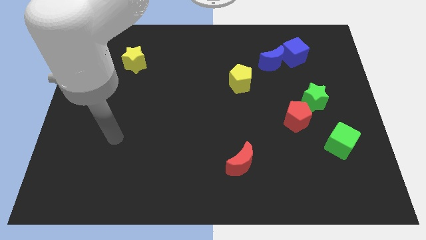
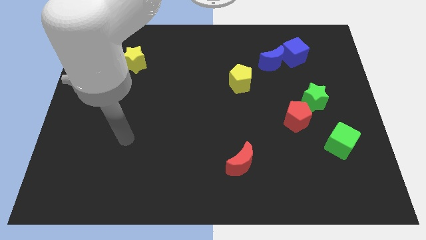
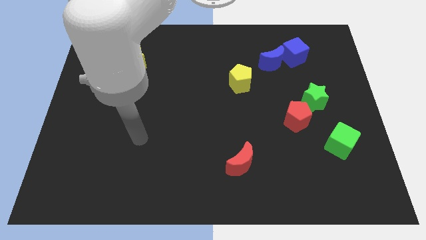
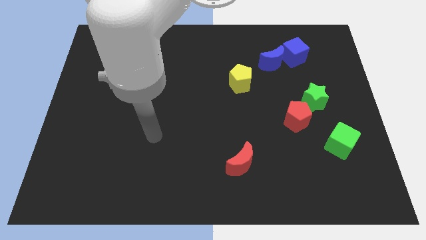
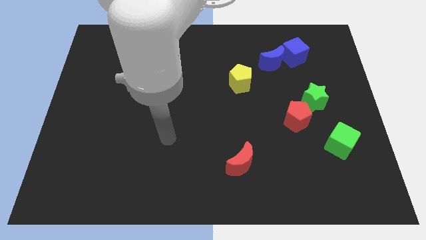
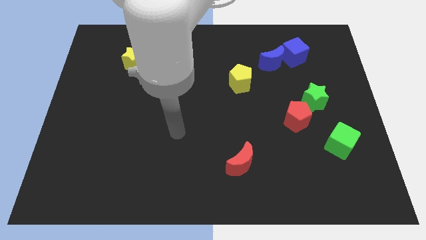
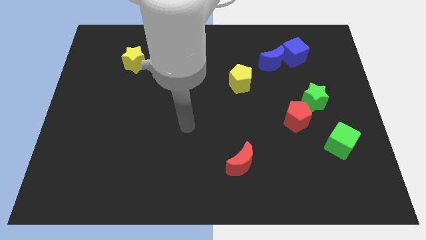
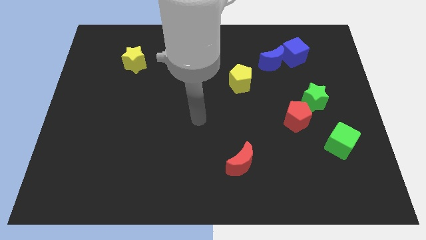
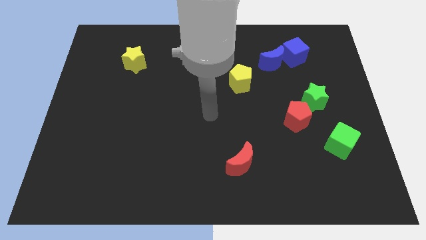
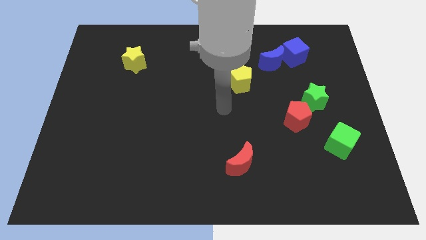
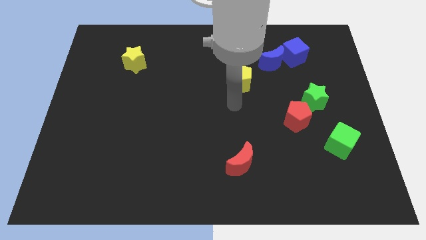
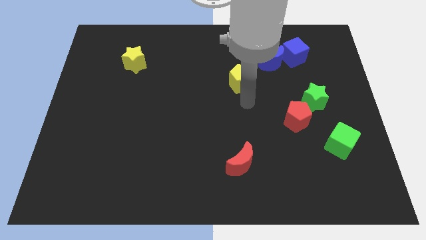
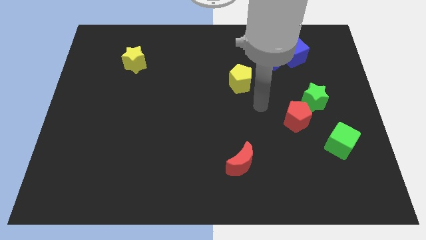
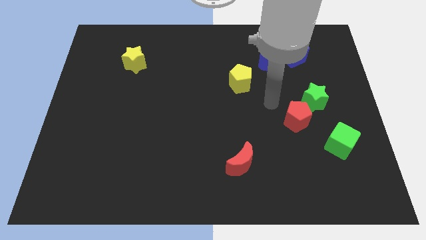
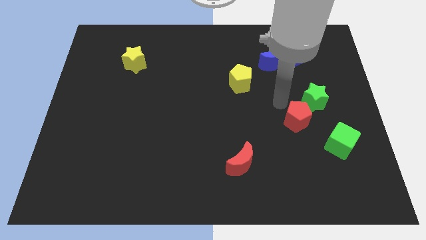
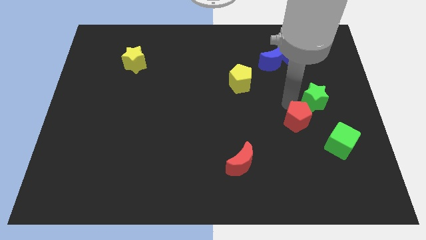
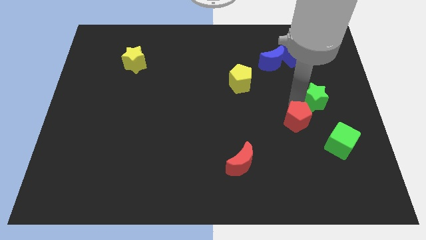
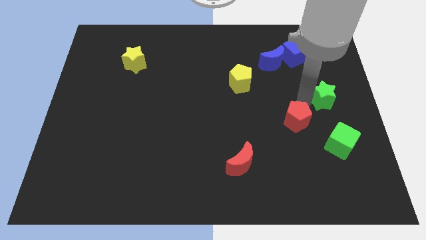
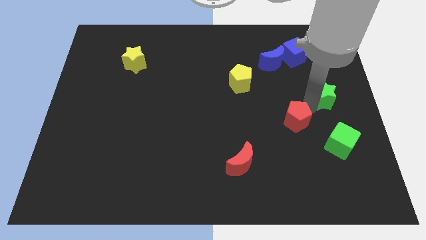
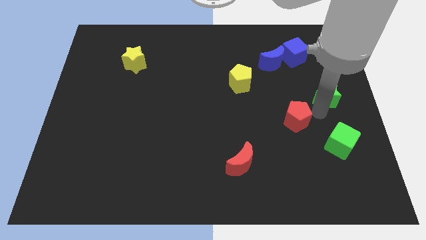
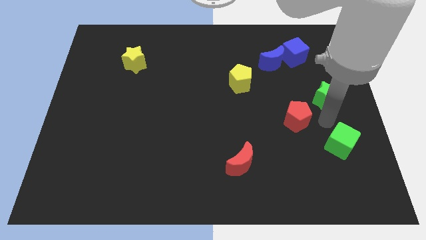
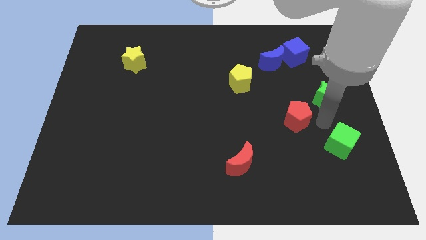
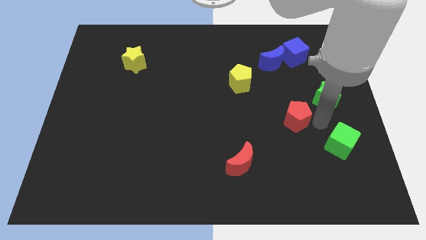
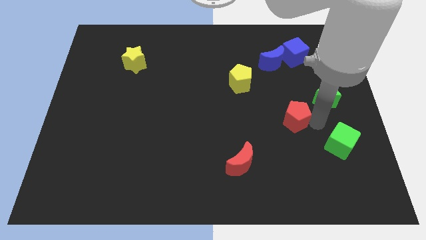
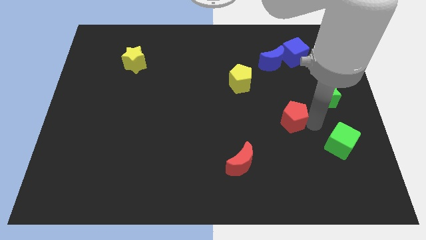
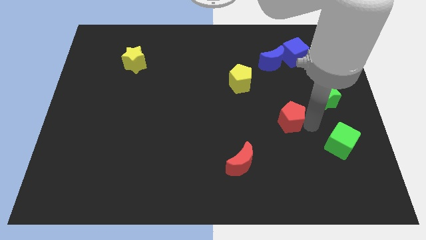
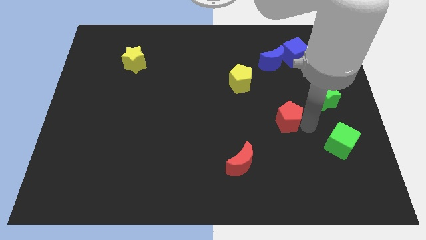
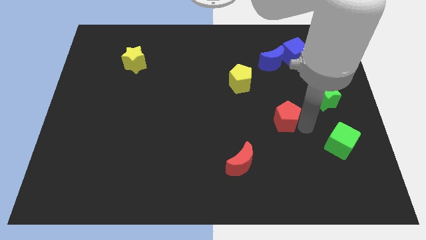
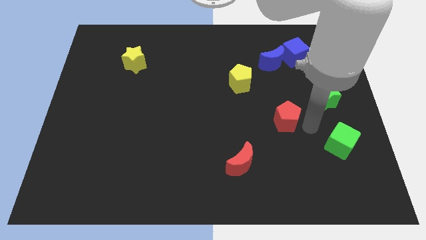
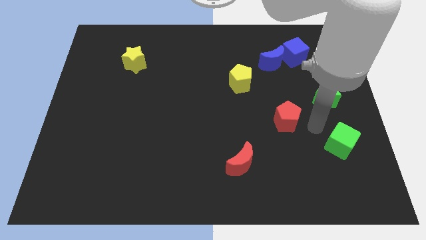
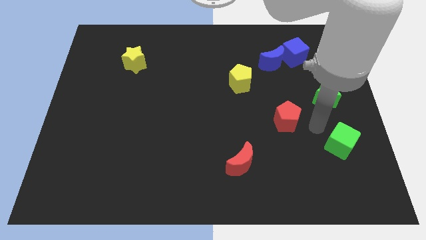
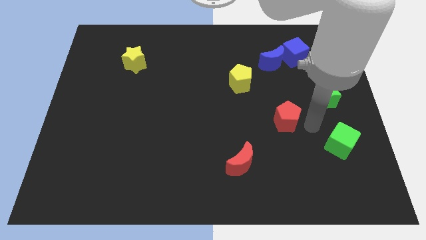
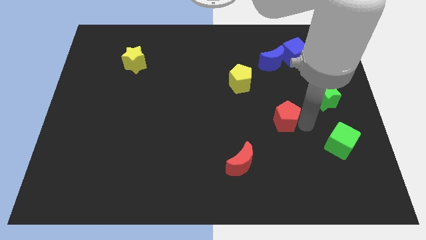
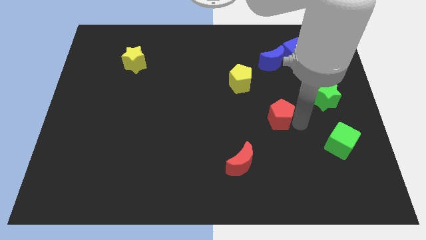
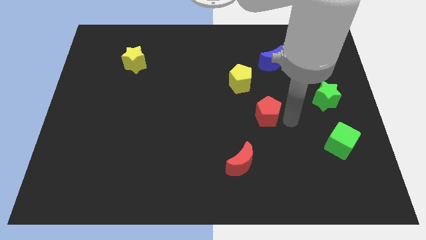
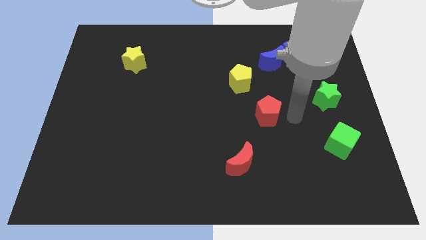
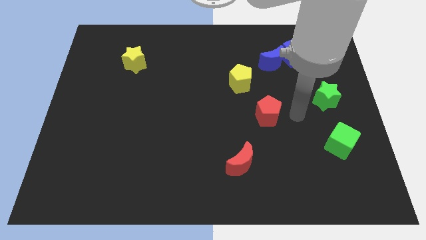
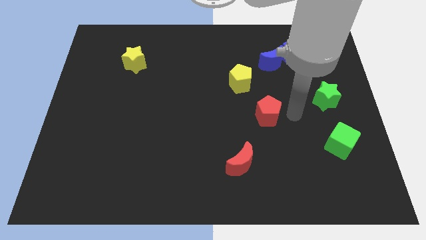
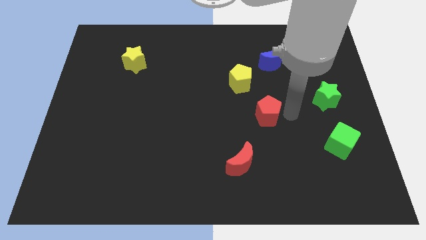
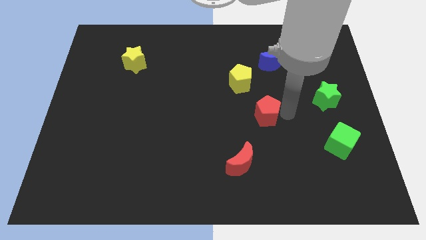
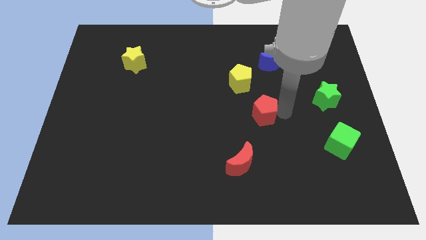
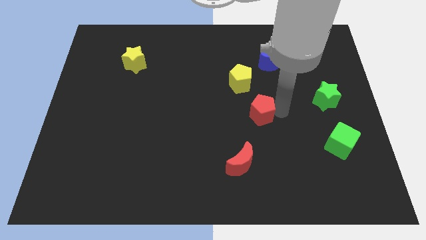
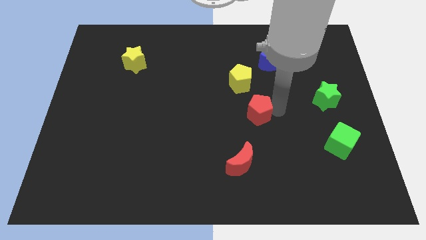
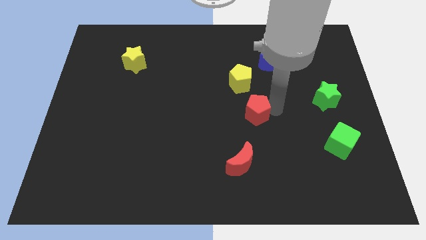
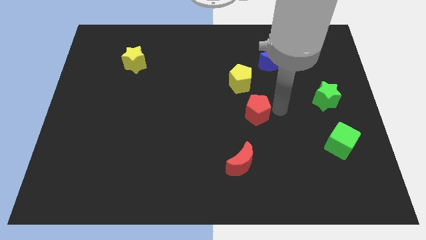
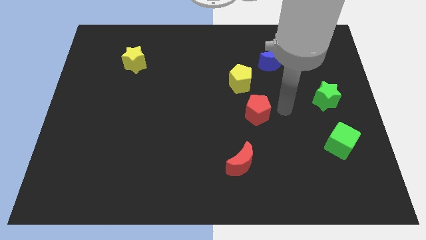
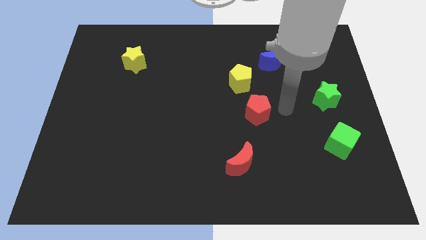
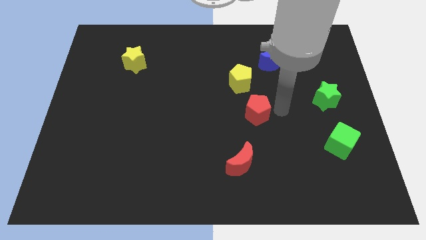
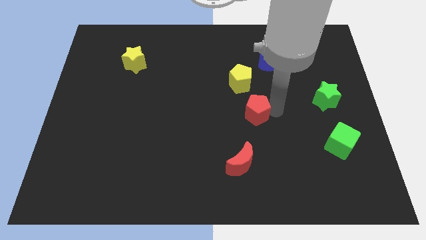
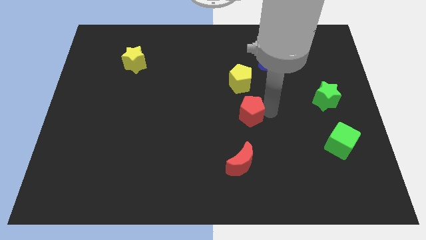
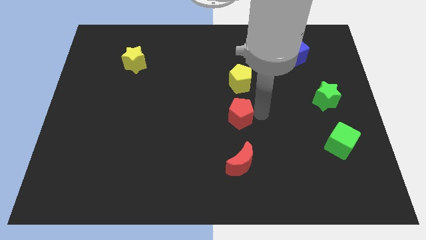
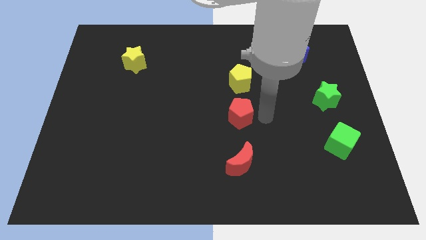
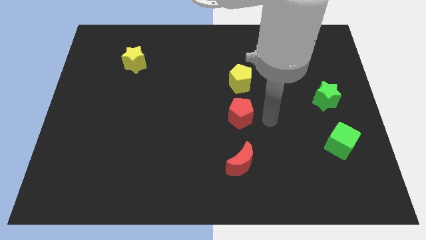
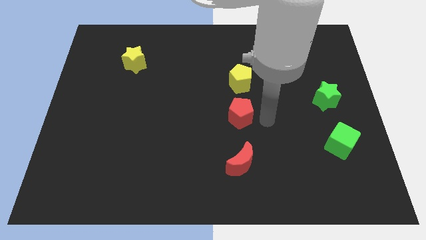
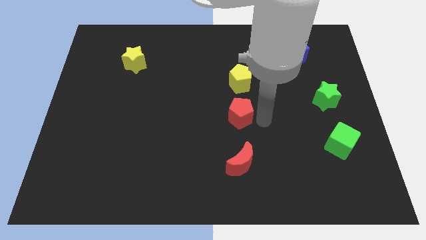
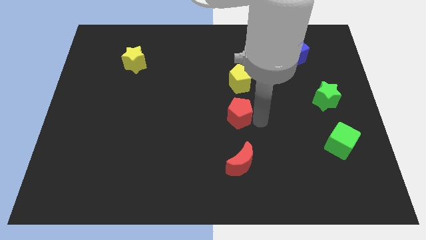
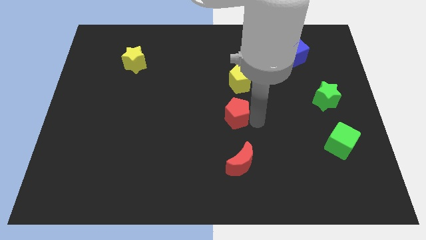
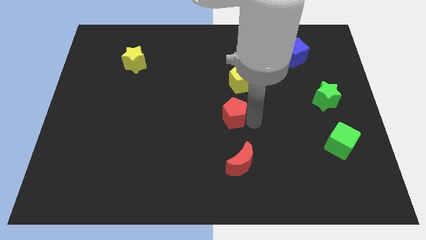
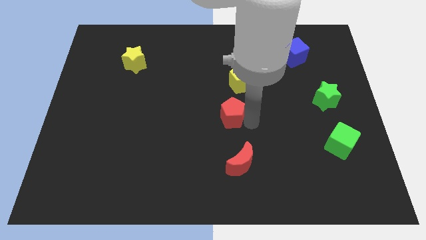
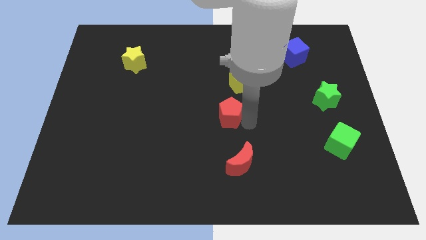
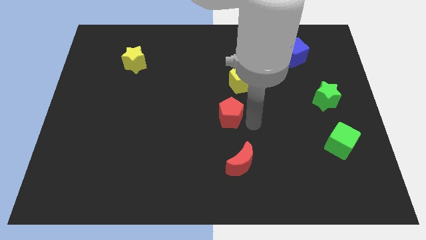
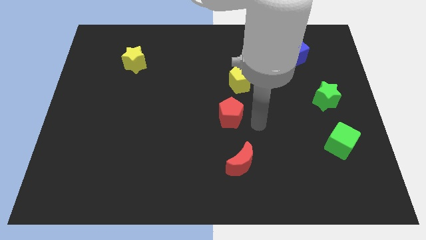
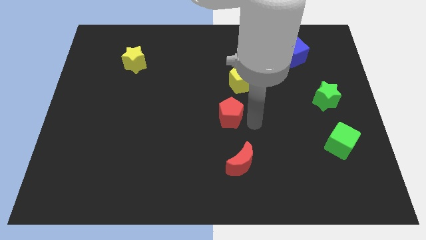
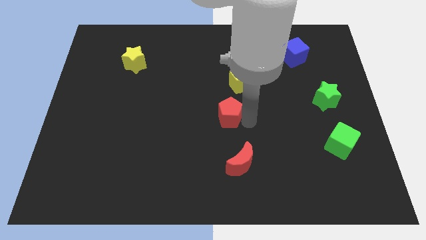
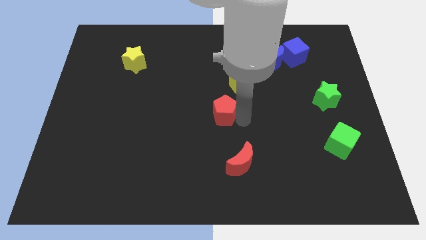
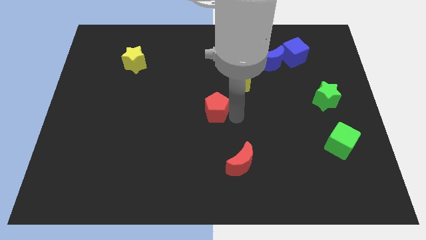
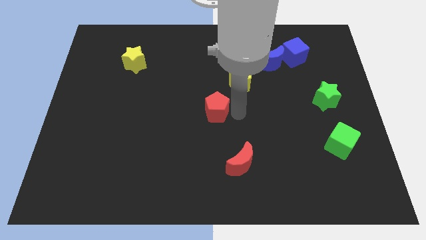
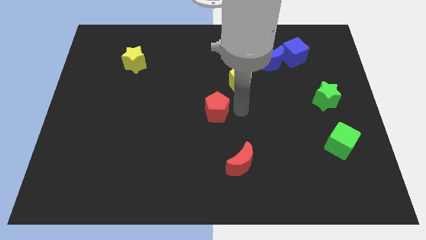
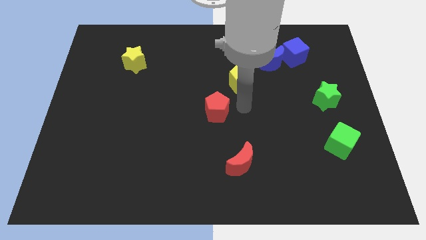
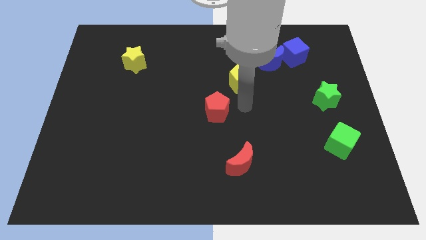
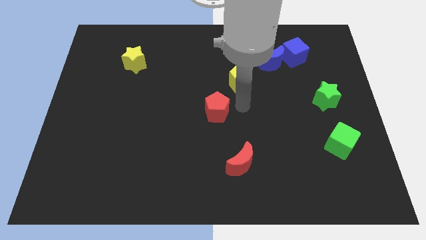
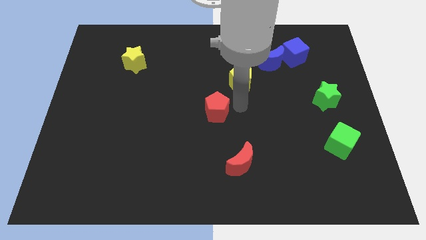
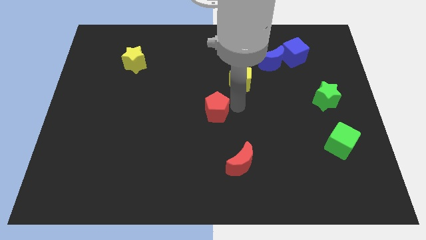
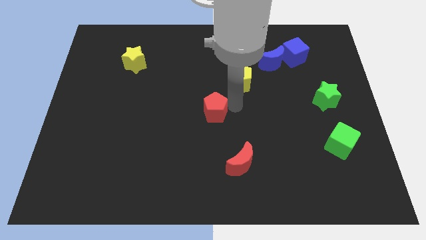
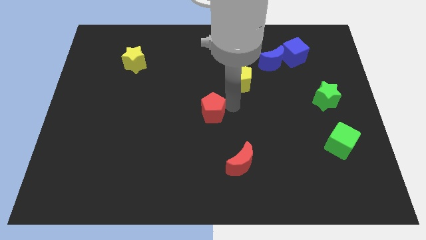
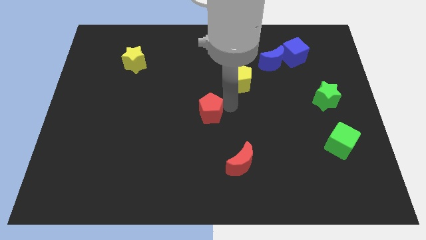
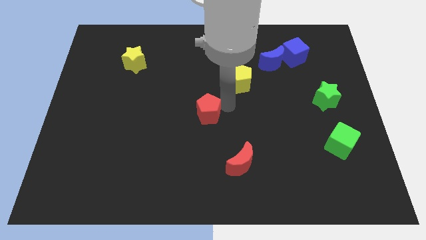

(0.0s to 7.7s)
push the red pentagon left
